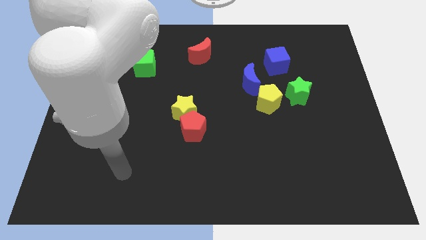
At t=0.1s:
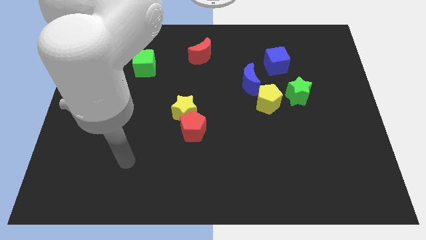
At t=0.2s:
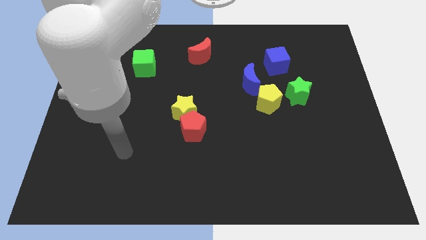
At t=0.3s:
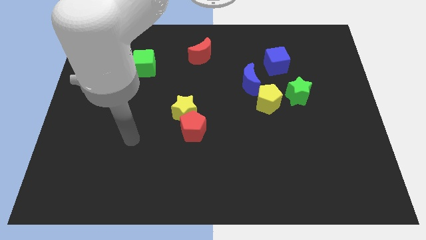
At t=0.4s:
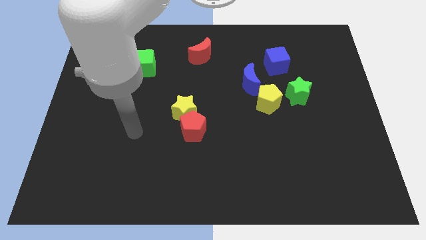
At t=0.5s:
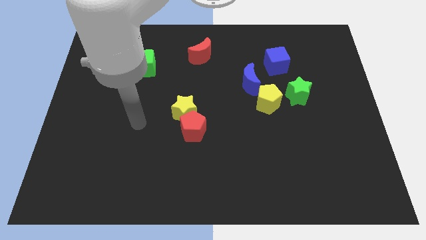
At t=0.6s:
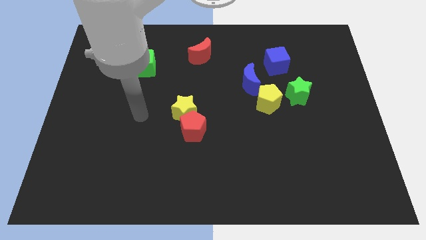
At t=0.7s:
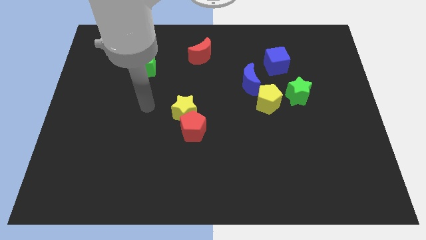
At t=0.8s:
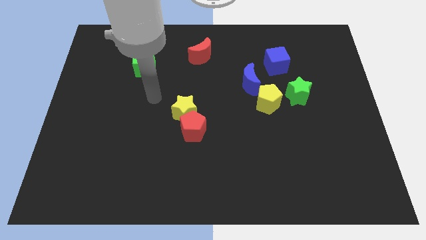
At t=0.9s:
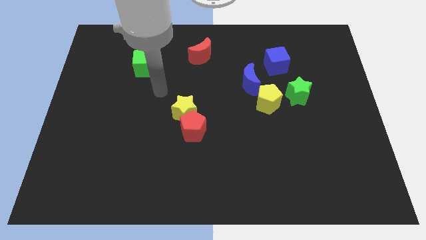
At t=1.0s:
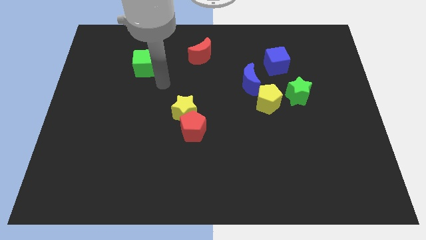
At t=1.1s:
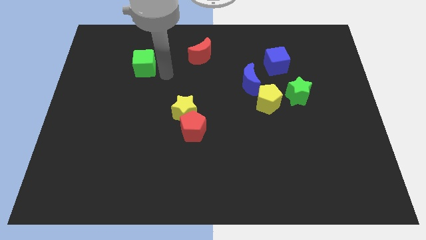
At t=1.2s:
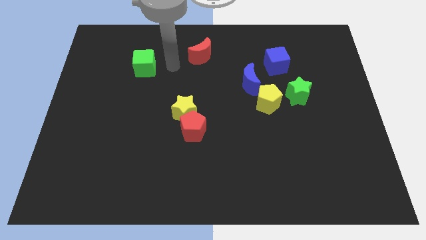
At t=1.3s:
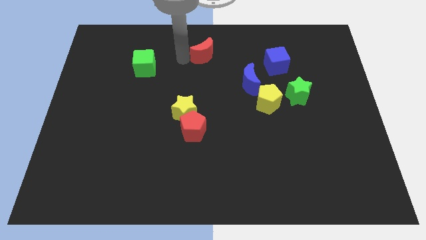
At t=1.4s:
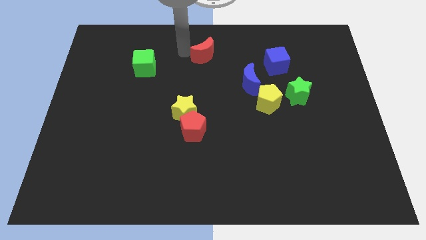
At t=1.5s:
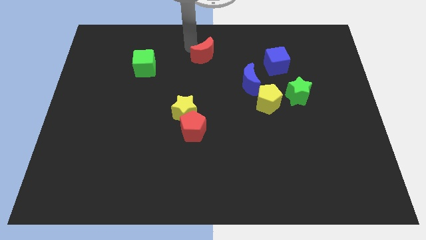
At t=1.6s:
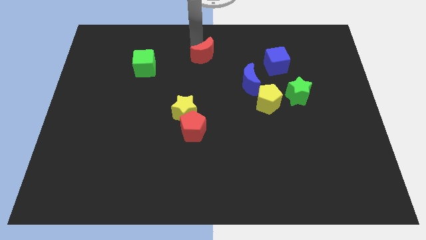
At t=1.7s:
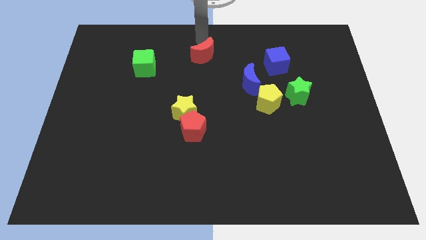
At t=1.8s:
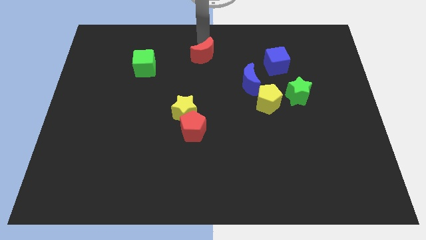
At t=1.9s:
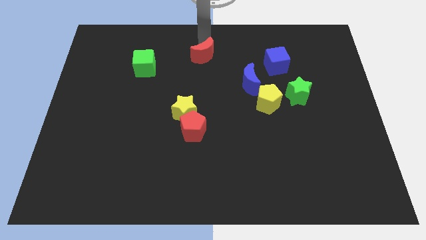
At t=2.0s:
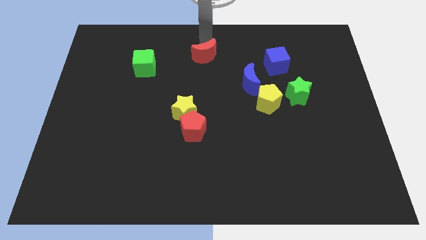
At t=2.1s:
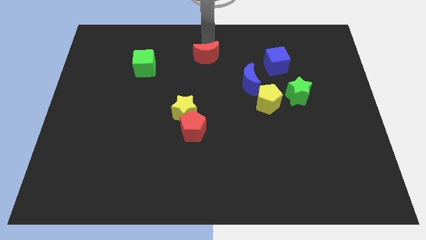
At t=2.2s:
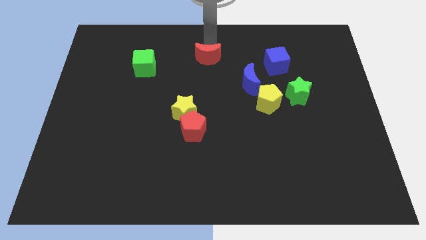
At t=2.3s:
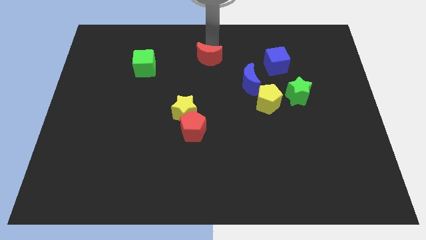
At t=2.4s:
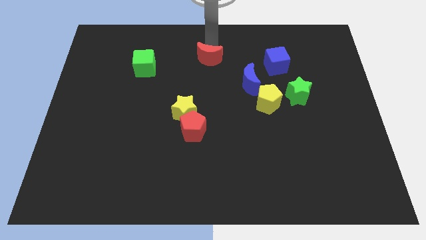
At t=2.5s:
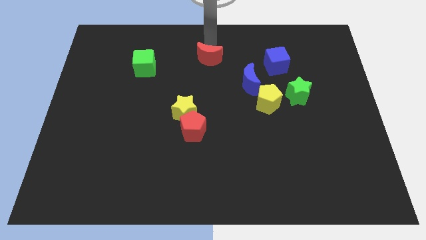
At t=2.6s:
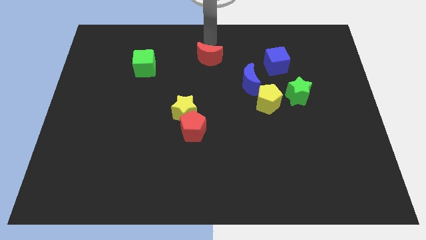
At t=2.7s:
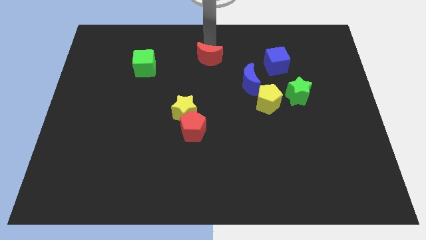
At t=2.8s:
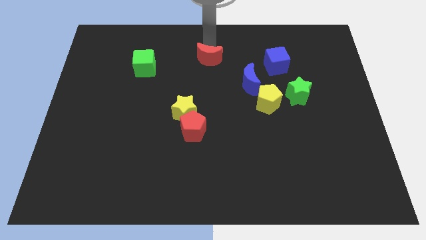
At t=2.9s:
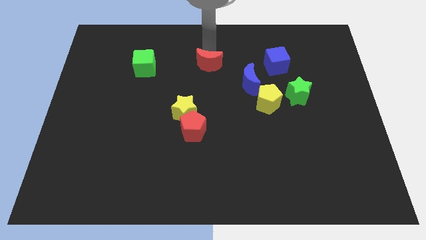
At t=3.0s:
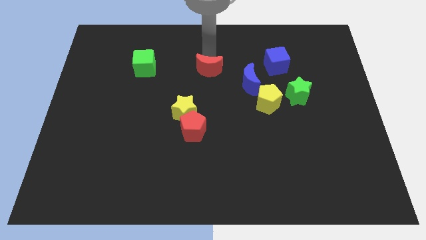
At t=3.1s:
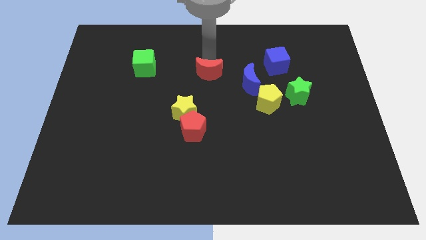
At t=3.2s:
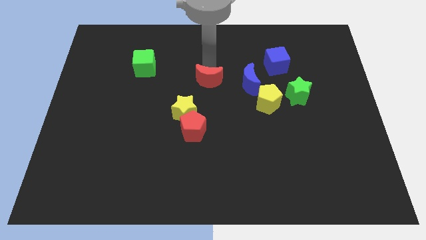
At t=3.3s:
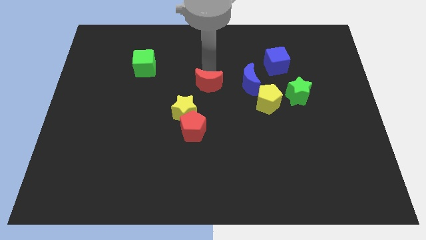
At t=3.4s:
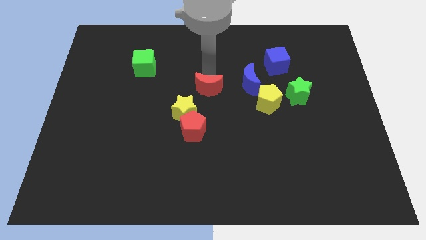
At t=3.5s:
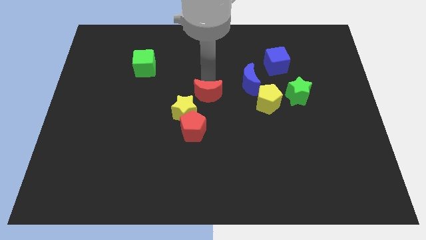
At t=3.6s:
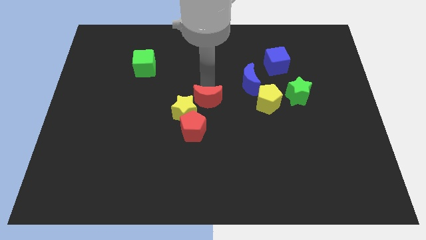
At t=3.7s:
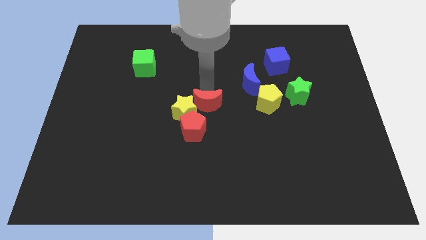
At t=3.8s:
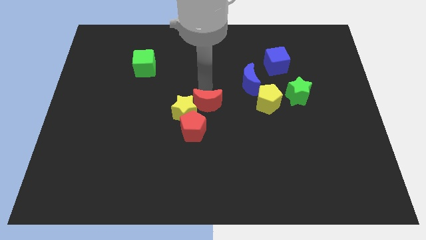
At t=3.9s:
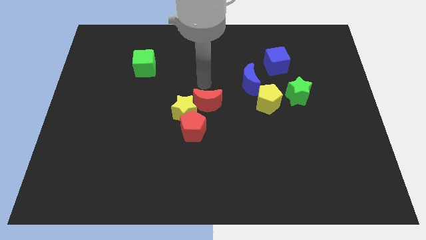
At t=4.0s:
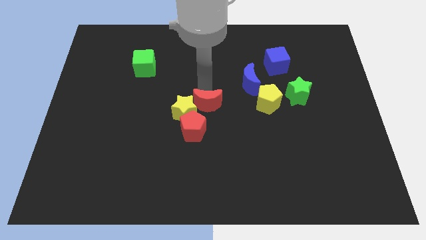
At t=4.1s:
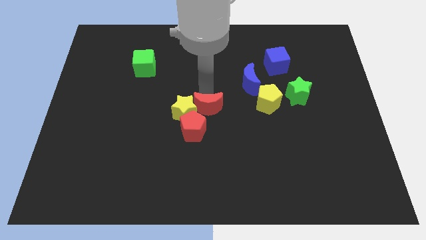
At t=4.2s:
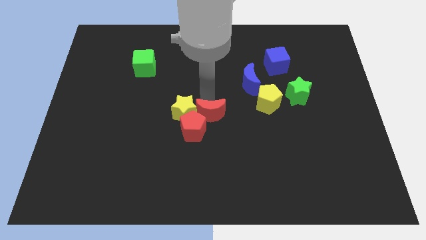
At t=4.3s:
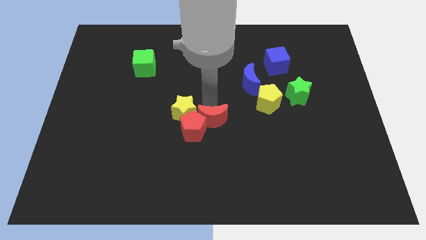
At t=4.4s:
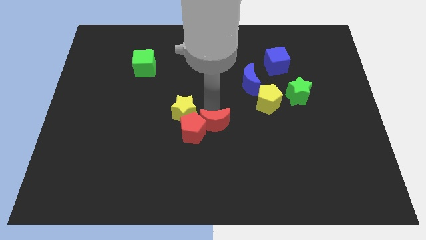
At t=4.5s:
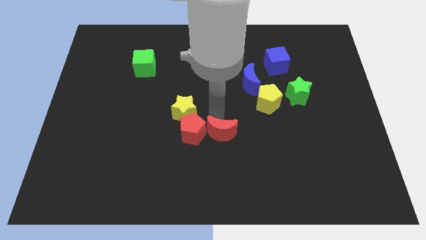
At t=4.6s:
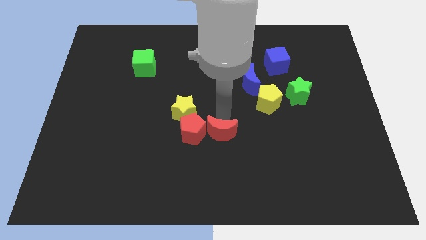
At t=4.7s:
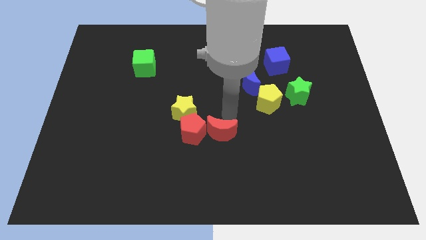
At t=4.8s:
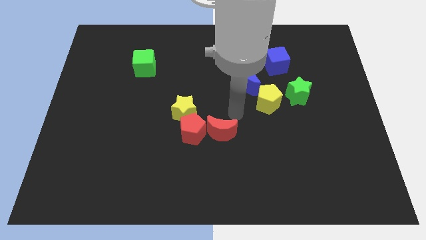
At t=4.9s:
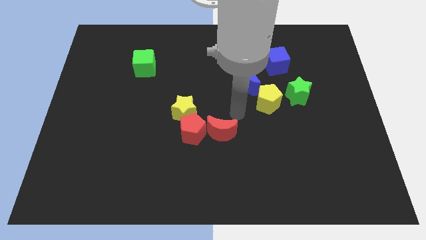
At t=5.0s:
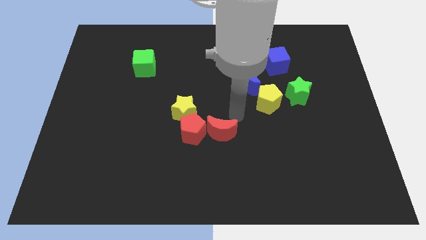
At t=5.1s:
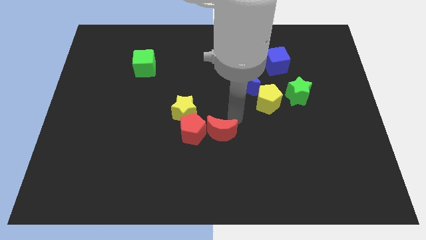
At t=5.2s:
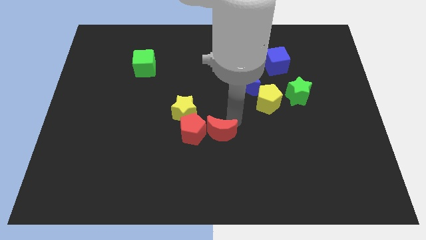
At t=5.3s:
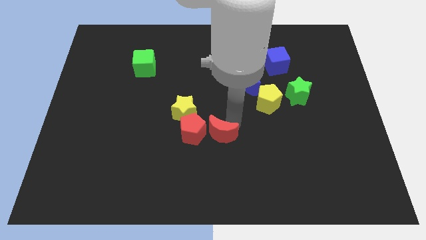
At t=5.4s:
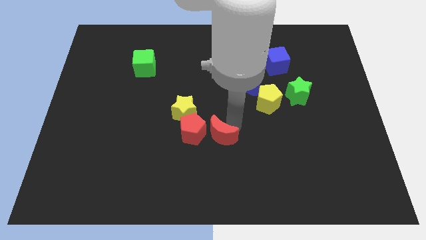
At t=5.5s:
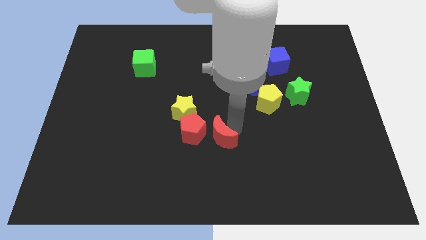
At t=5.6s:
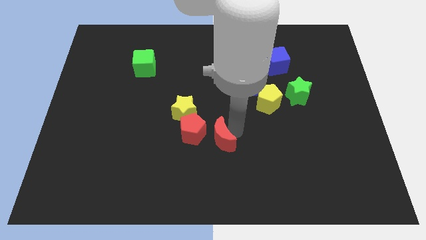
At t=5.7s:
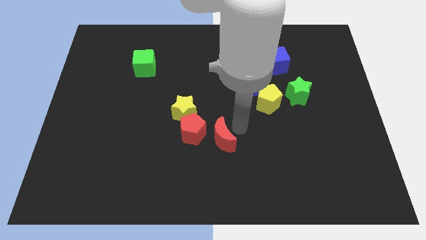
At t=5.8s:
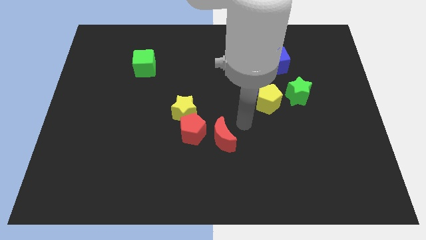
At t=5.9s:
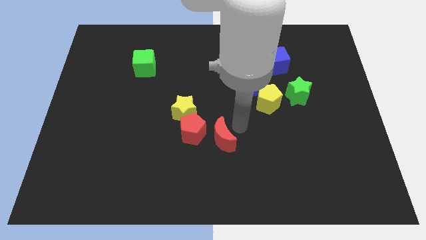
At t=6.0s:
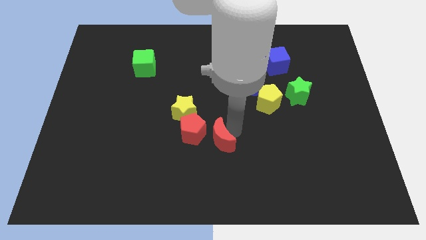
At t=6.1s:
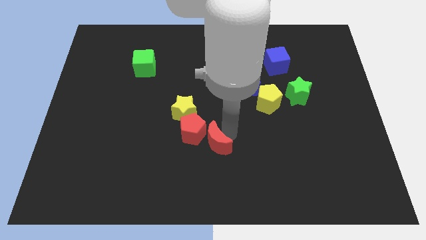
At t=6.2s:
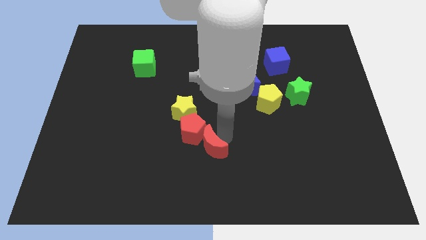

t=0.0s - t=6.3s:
put the red moon to the bottom side of the red pentagon

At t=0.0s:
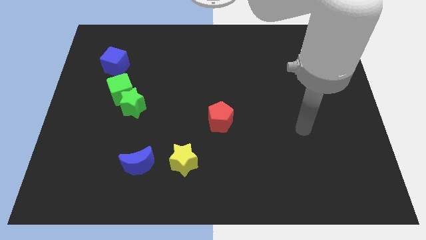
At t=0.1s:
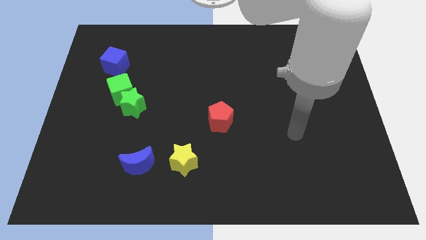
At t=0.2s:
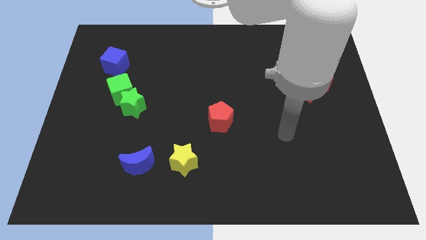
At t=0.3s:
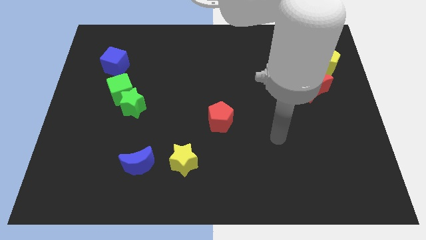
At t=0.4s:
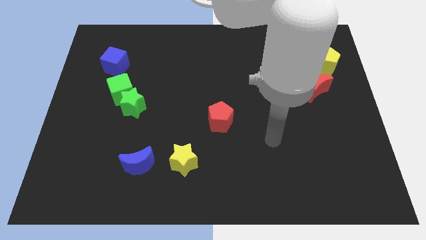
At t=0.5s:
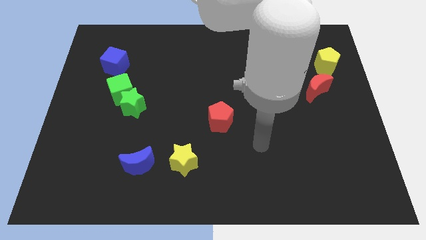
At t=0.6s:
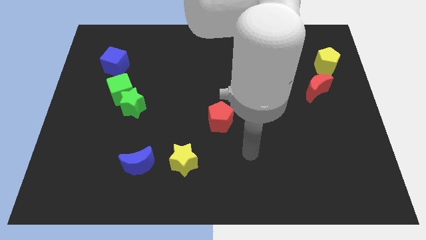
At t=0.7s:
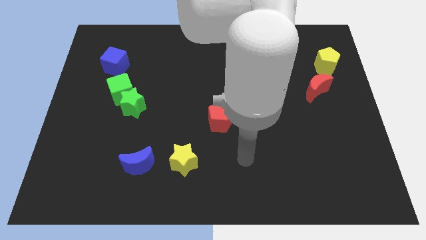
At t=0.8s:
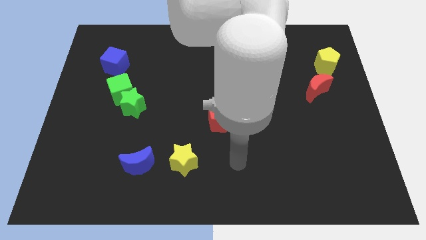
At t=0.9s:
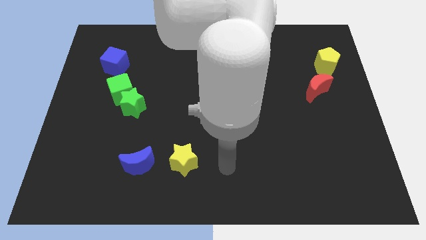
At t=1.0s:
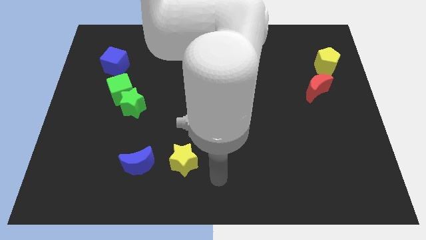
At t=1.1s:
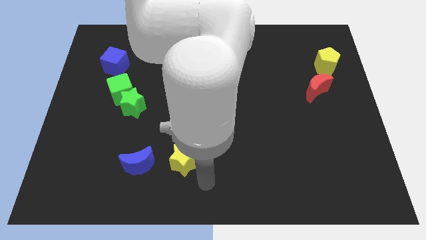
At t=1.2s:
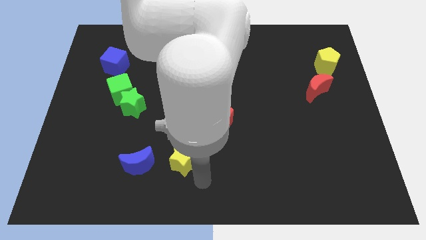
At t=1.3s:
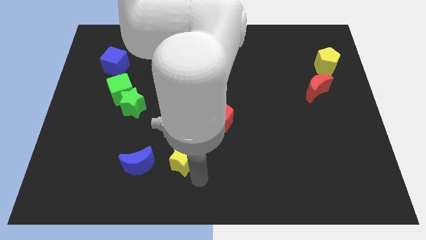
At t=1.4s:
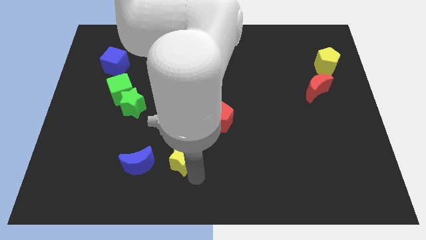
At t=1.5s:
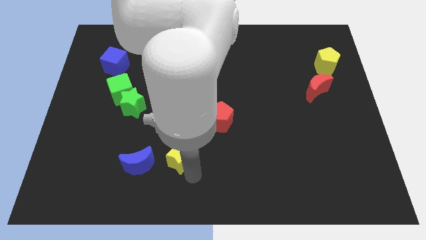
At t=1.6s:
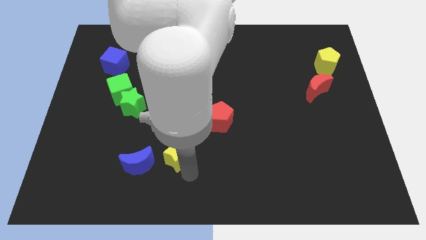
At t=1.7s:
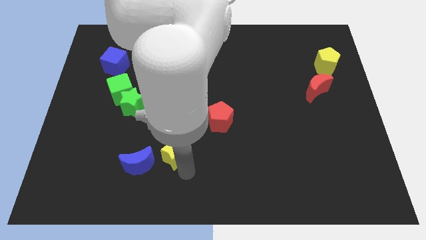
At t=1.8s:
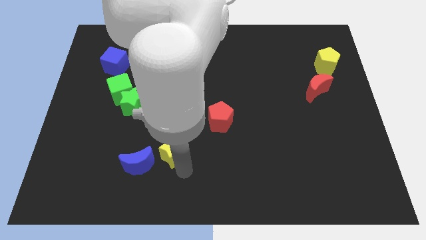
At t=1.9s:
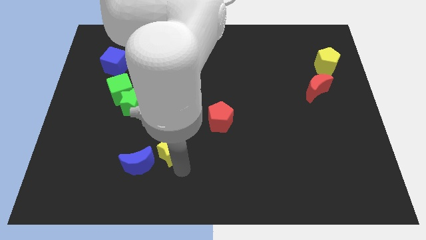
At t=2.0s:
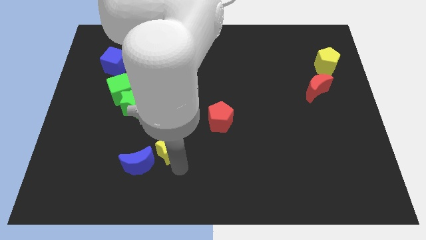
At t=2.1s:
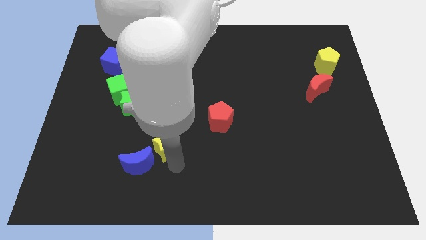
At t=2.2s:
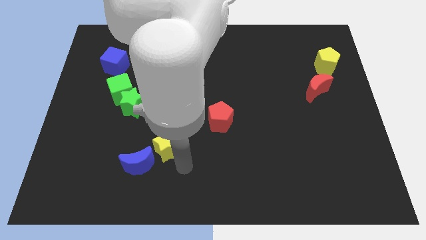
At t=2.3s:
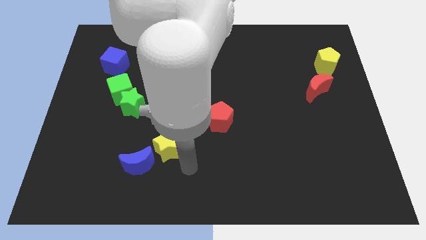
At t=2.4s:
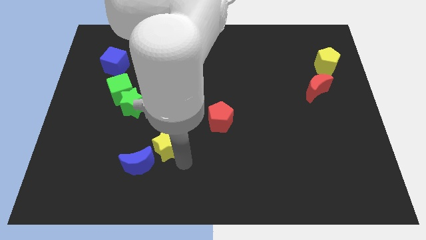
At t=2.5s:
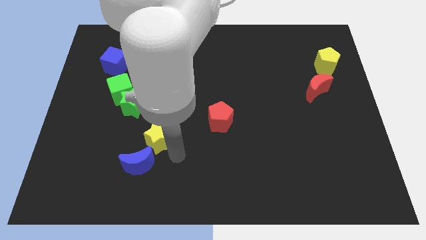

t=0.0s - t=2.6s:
put the yellow star to the top of the blue moon
